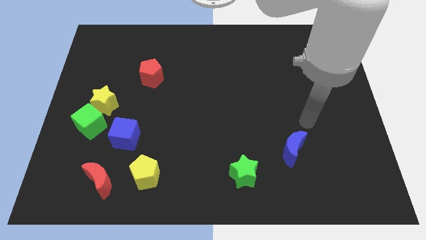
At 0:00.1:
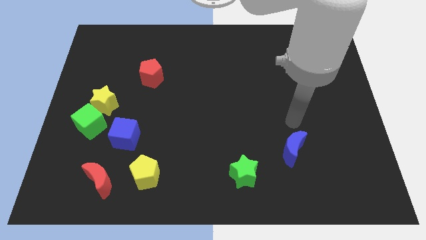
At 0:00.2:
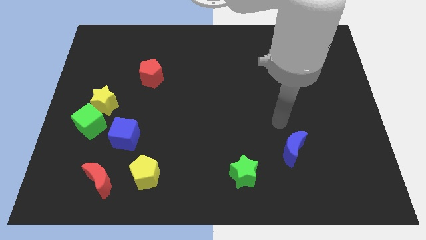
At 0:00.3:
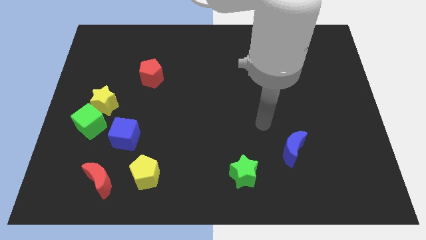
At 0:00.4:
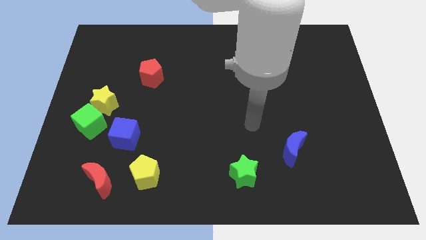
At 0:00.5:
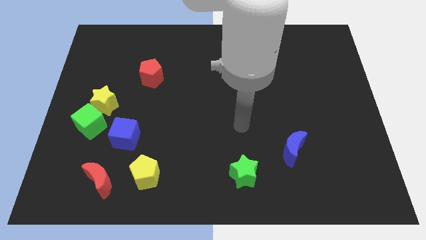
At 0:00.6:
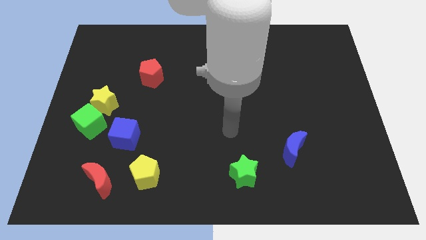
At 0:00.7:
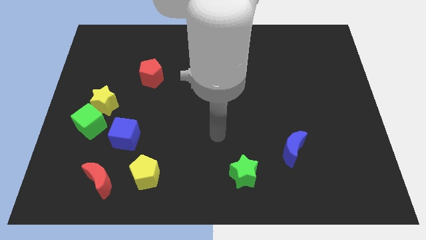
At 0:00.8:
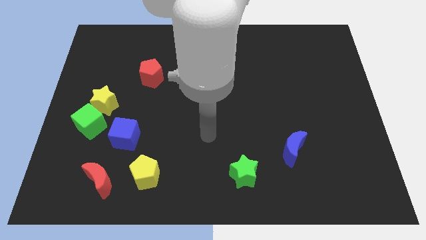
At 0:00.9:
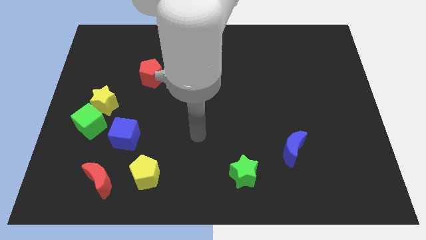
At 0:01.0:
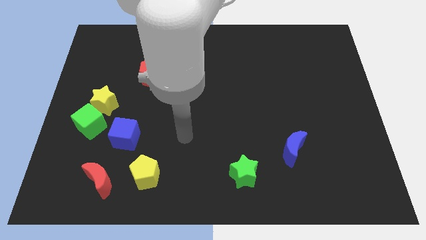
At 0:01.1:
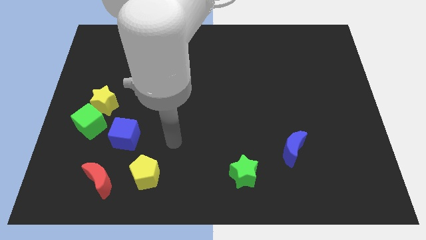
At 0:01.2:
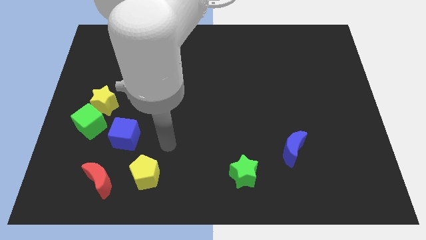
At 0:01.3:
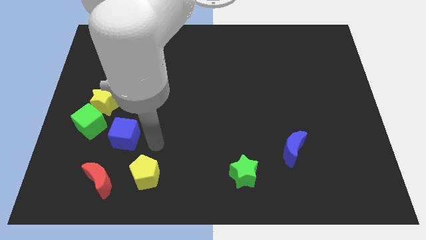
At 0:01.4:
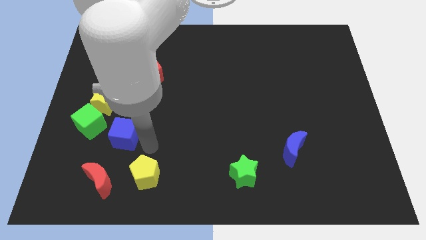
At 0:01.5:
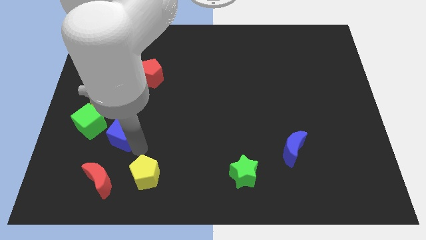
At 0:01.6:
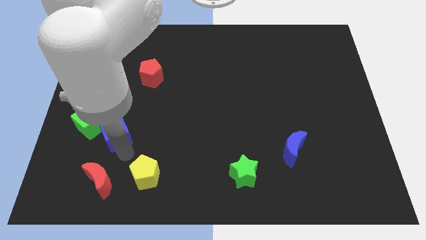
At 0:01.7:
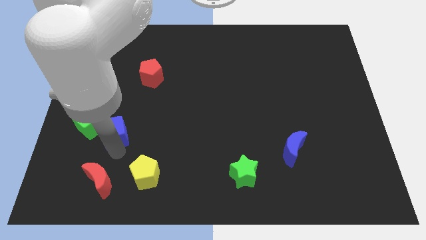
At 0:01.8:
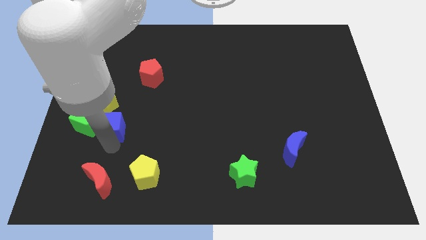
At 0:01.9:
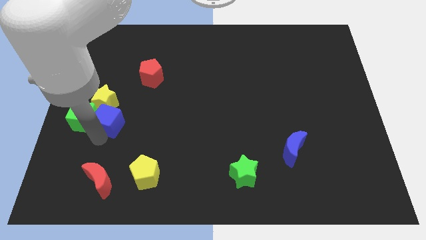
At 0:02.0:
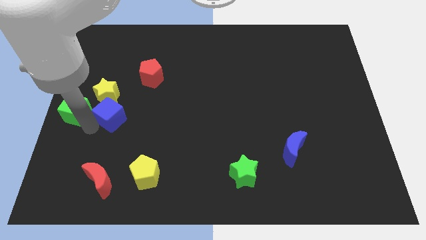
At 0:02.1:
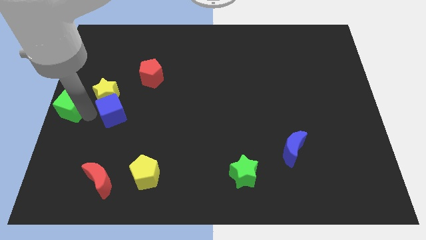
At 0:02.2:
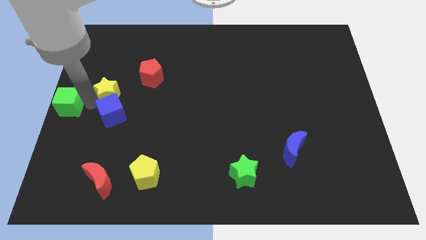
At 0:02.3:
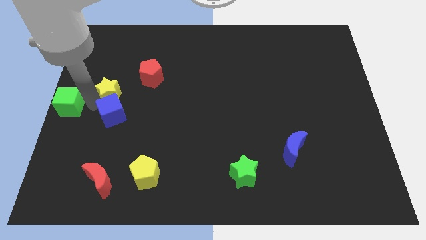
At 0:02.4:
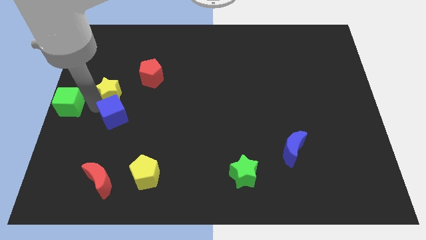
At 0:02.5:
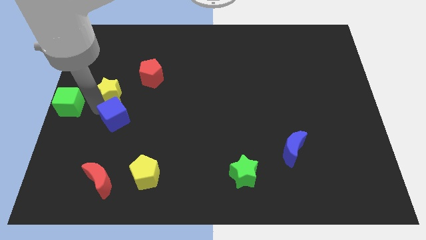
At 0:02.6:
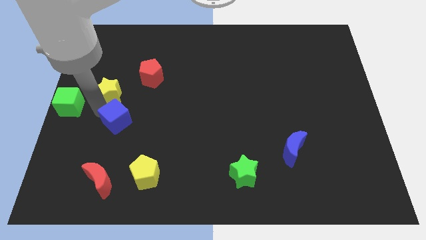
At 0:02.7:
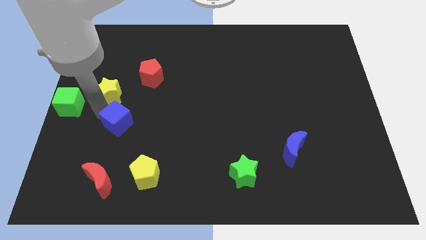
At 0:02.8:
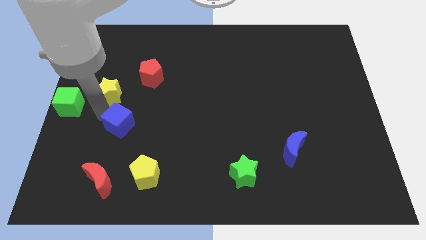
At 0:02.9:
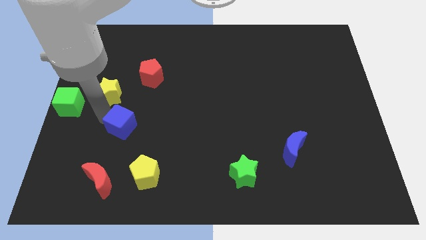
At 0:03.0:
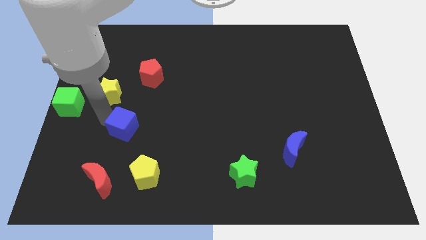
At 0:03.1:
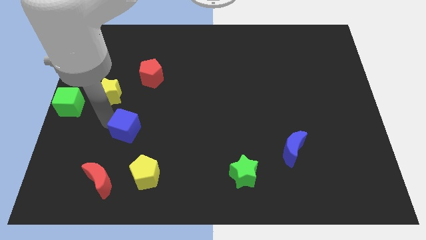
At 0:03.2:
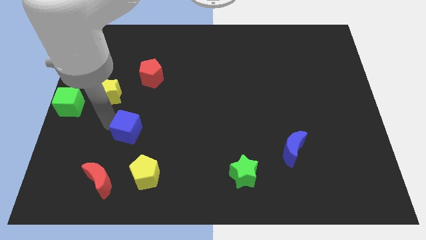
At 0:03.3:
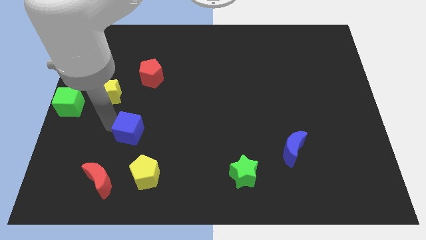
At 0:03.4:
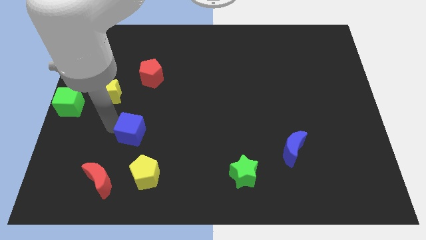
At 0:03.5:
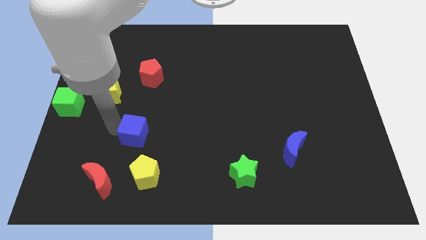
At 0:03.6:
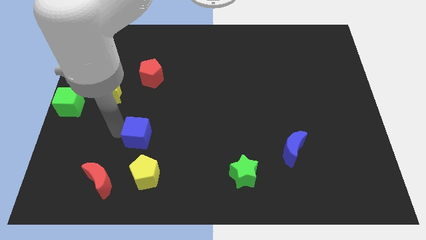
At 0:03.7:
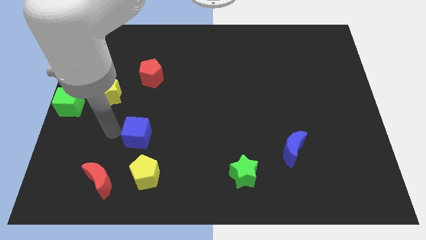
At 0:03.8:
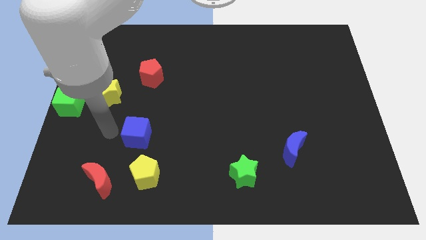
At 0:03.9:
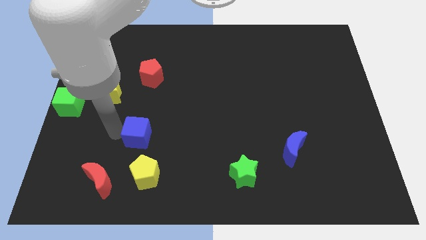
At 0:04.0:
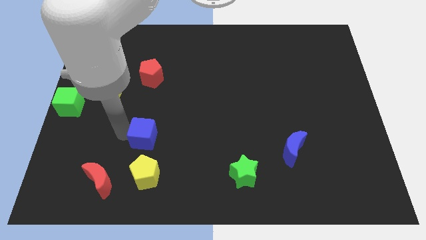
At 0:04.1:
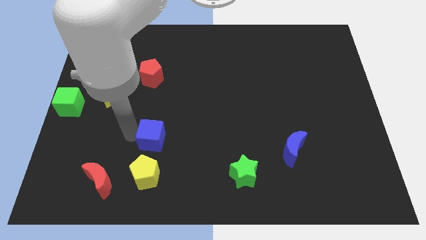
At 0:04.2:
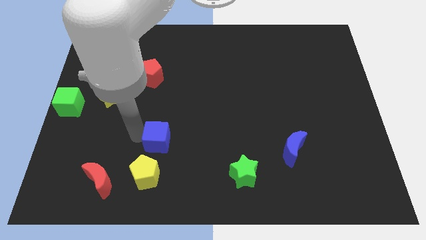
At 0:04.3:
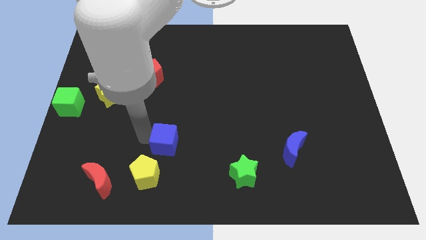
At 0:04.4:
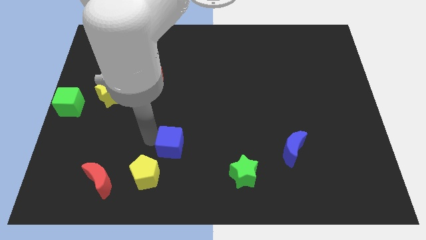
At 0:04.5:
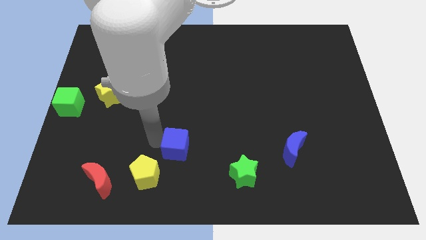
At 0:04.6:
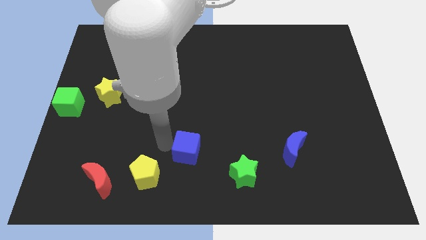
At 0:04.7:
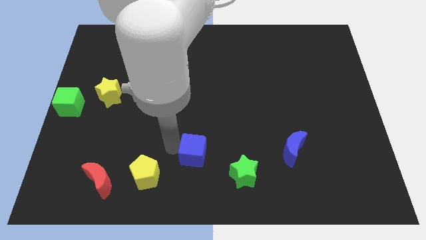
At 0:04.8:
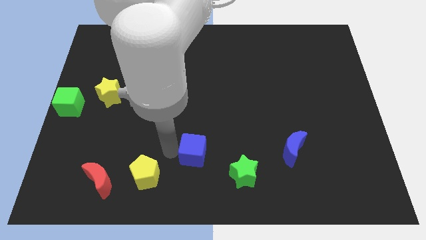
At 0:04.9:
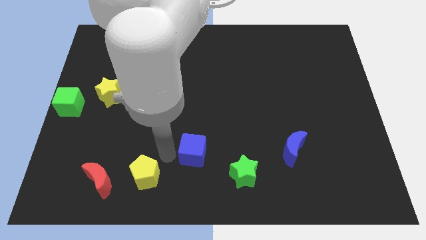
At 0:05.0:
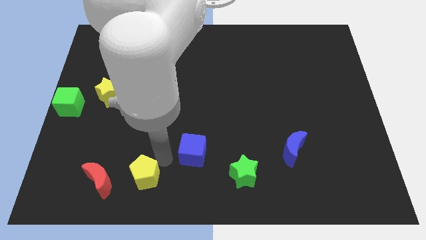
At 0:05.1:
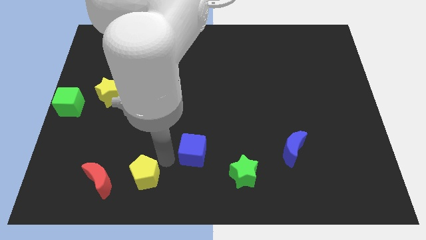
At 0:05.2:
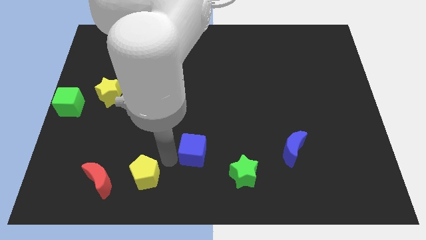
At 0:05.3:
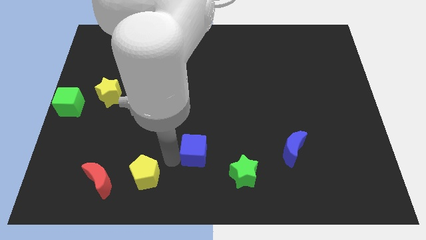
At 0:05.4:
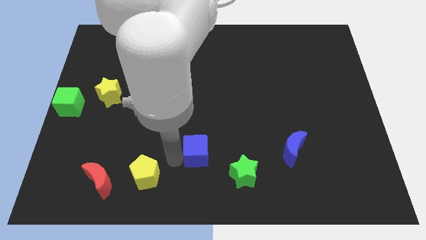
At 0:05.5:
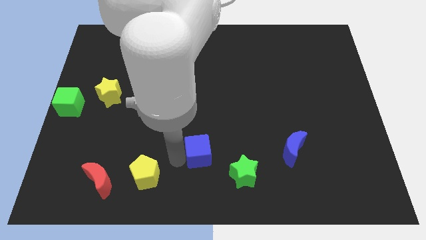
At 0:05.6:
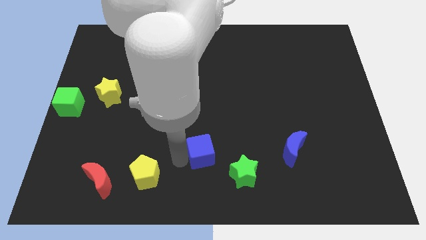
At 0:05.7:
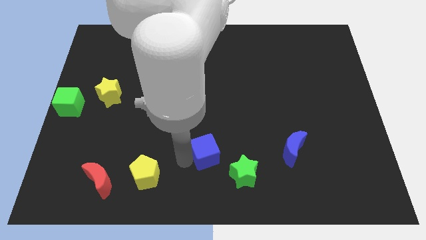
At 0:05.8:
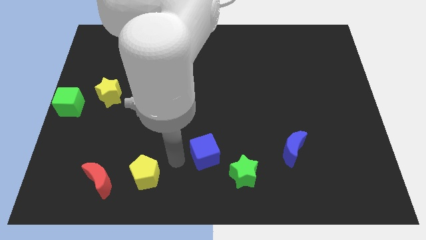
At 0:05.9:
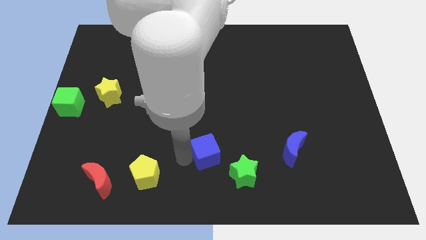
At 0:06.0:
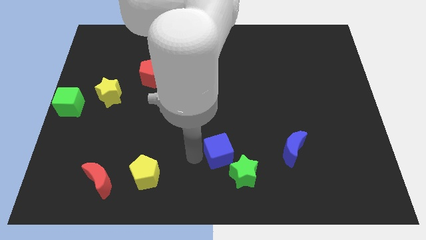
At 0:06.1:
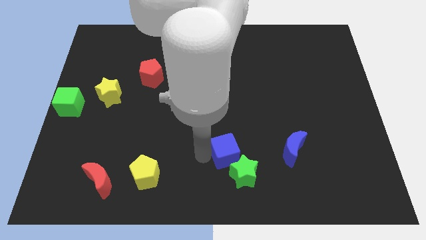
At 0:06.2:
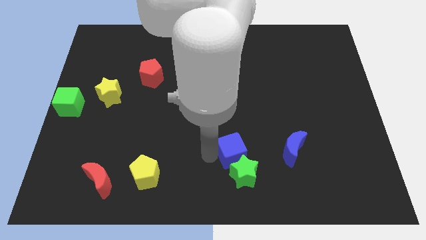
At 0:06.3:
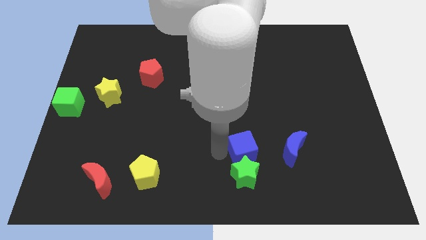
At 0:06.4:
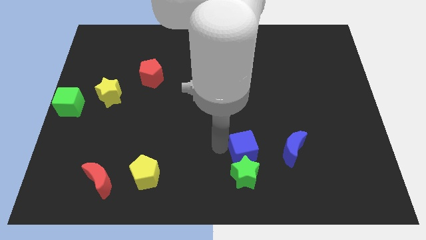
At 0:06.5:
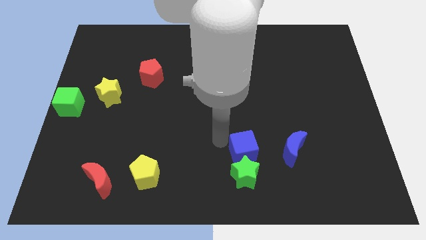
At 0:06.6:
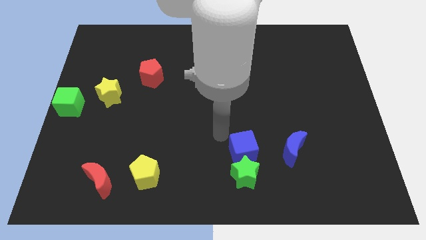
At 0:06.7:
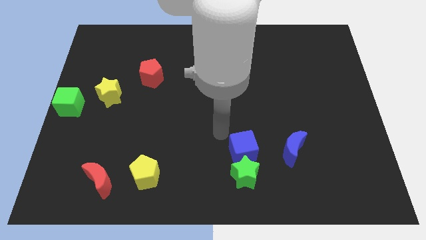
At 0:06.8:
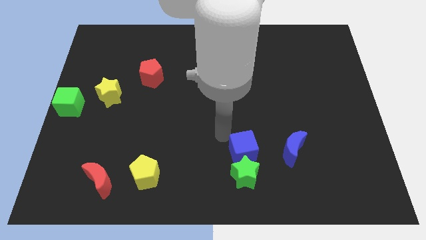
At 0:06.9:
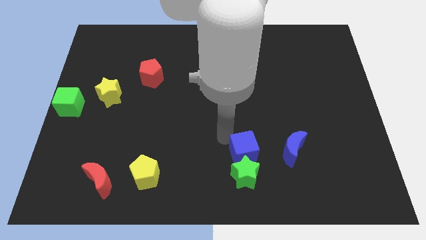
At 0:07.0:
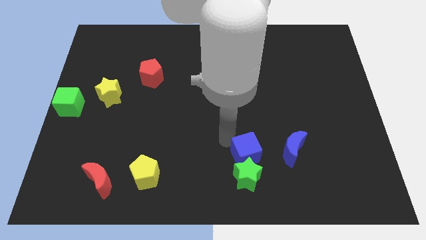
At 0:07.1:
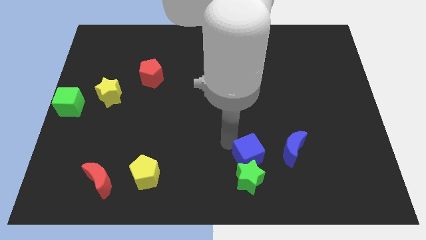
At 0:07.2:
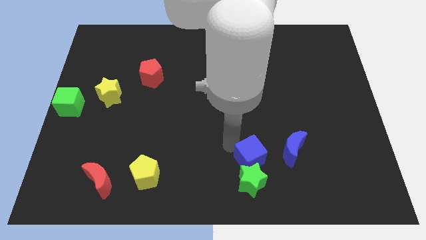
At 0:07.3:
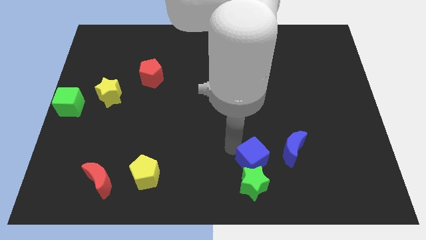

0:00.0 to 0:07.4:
slide the blue cube to the bottom left of the blue moon
